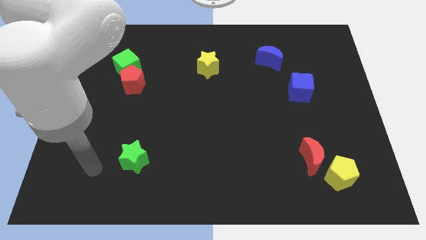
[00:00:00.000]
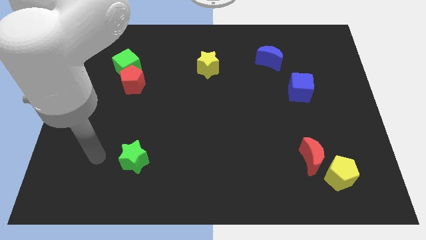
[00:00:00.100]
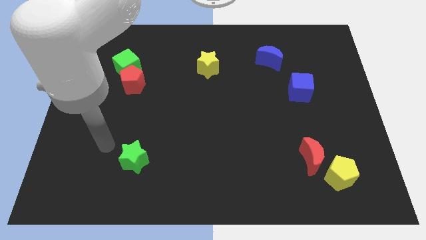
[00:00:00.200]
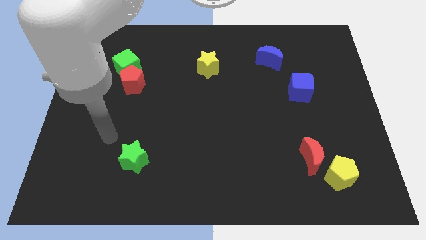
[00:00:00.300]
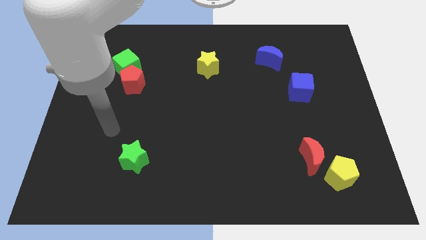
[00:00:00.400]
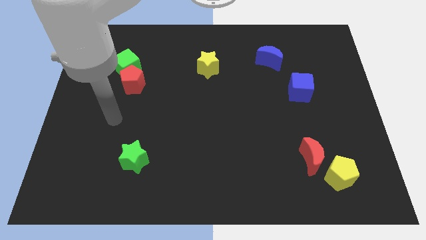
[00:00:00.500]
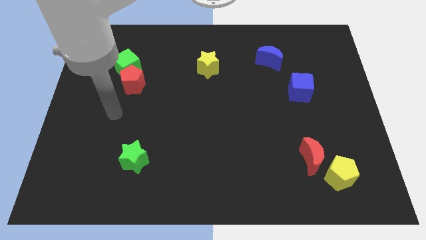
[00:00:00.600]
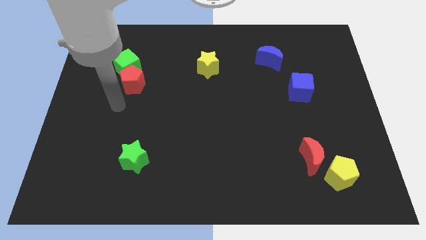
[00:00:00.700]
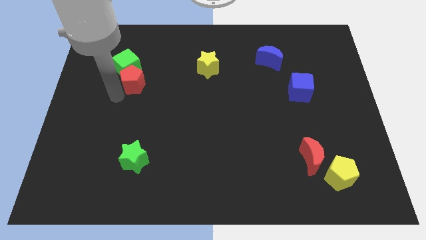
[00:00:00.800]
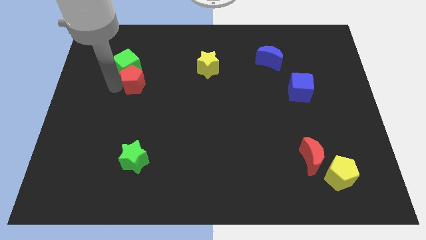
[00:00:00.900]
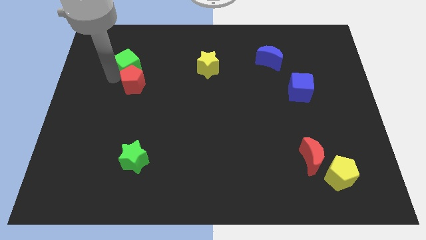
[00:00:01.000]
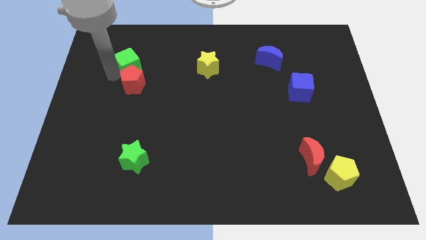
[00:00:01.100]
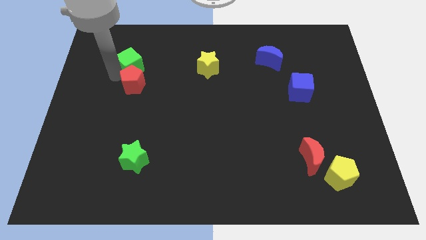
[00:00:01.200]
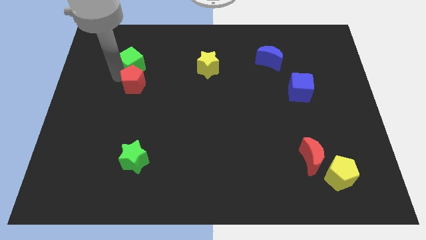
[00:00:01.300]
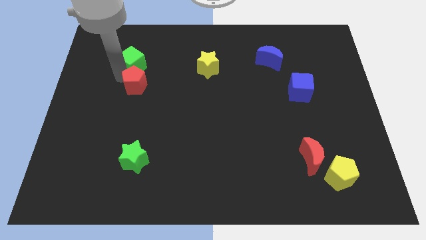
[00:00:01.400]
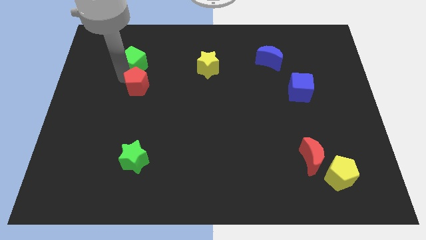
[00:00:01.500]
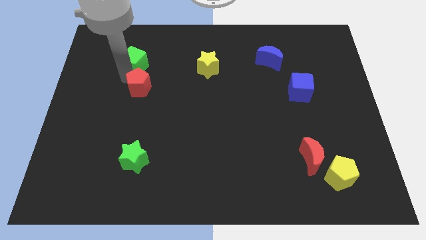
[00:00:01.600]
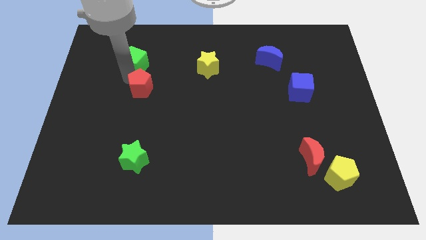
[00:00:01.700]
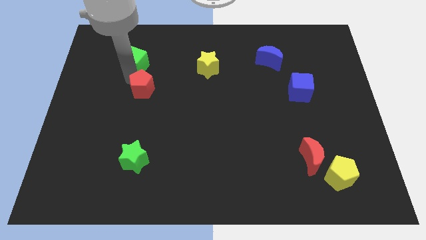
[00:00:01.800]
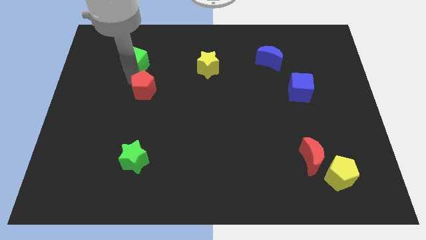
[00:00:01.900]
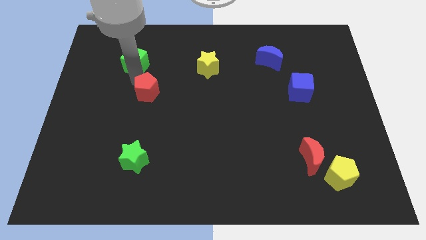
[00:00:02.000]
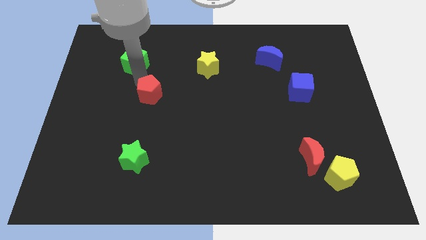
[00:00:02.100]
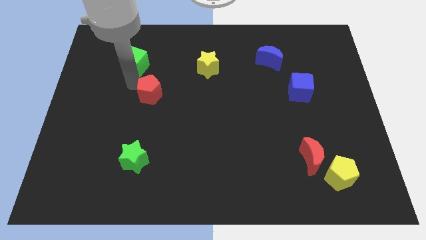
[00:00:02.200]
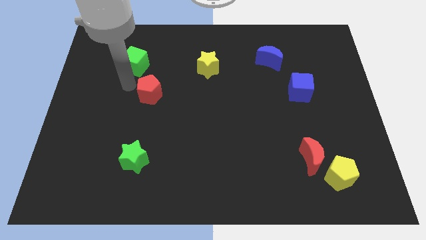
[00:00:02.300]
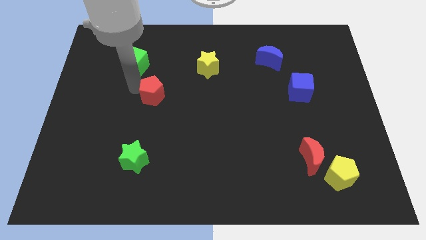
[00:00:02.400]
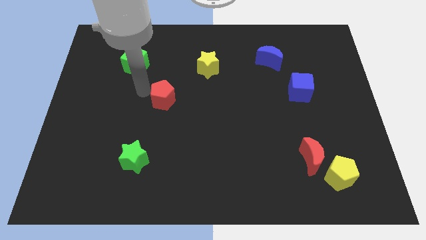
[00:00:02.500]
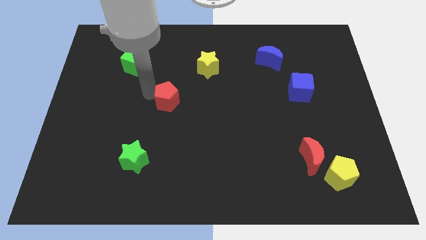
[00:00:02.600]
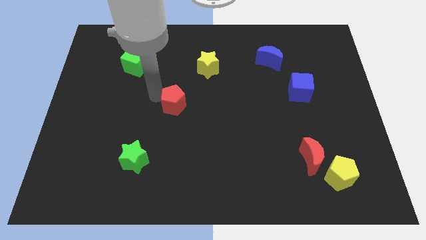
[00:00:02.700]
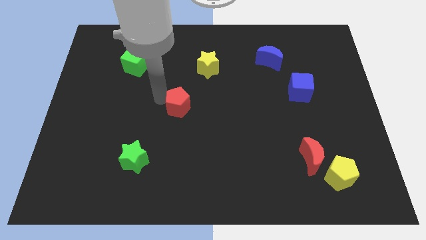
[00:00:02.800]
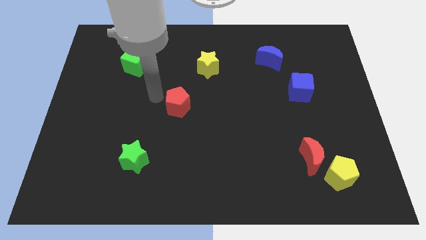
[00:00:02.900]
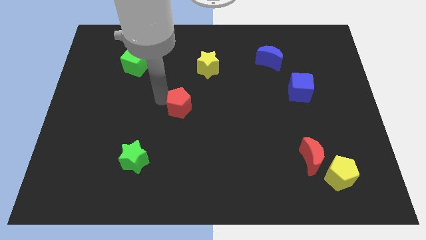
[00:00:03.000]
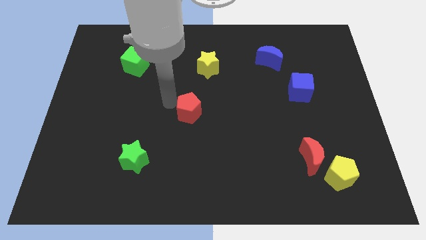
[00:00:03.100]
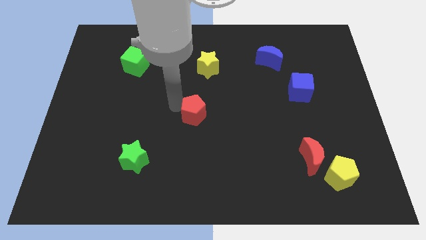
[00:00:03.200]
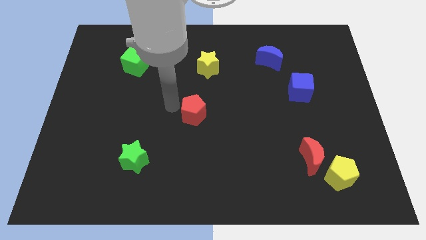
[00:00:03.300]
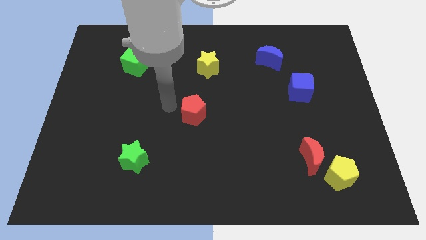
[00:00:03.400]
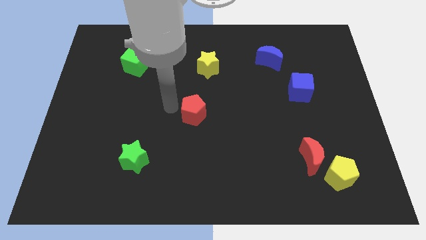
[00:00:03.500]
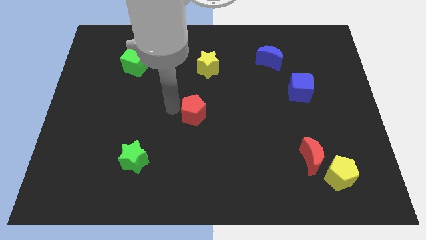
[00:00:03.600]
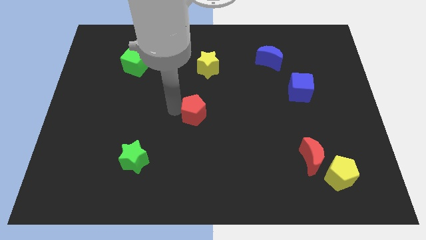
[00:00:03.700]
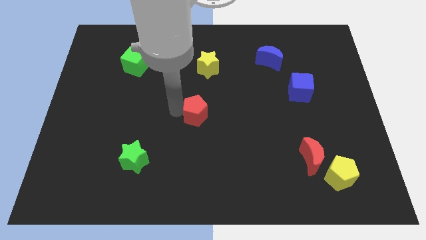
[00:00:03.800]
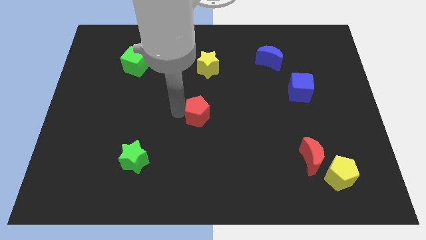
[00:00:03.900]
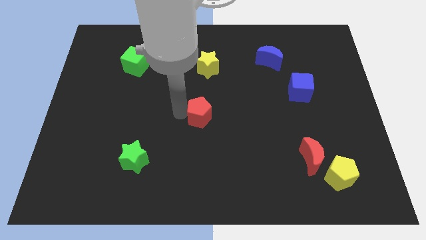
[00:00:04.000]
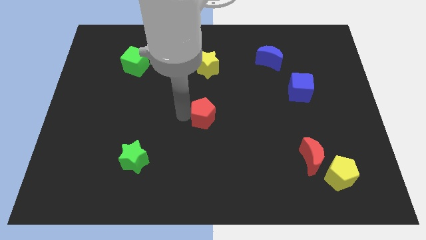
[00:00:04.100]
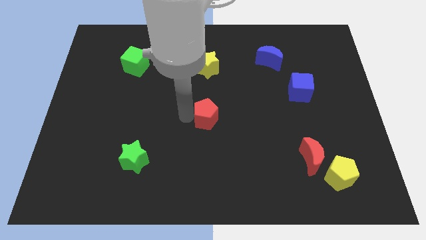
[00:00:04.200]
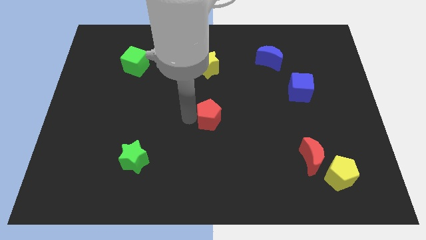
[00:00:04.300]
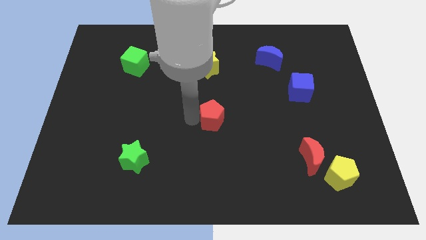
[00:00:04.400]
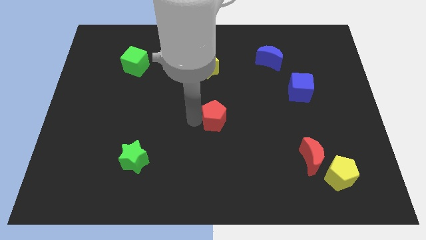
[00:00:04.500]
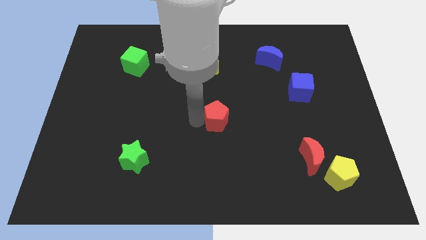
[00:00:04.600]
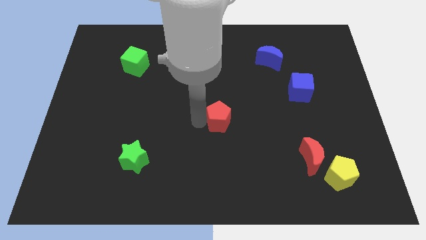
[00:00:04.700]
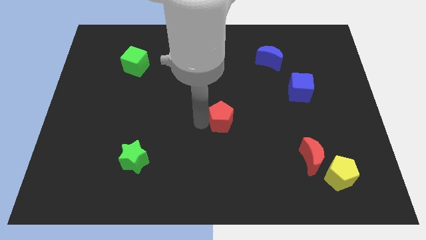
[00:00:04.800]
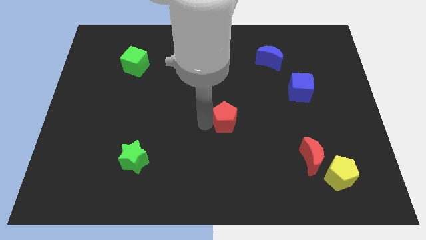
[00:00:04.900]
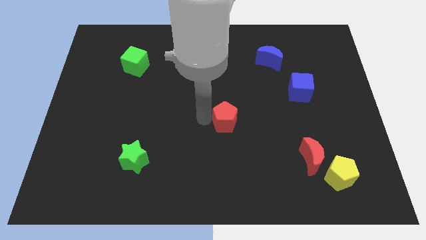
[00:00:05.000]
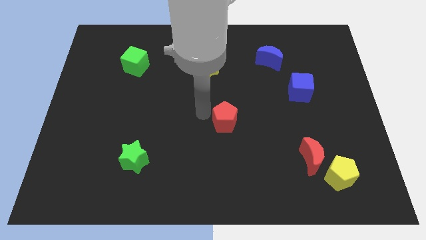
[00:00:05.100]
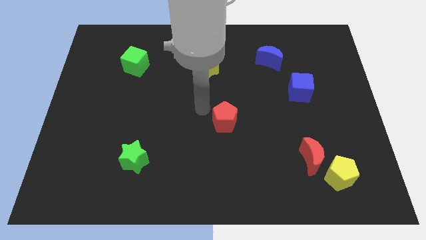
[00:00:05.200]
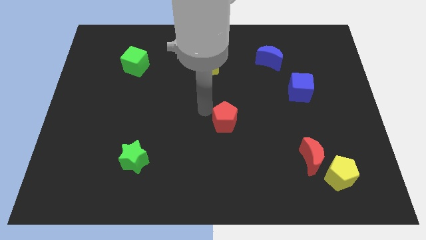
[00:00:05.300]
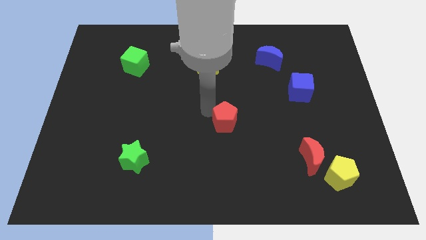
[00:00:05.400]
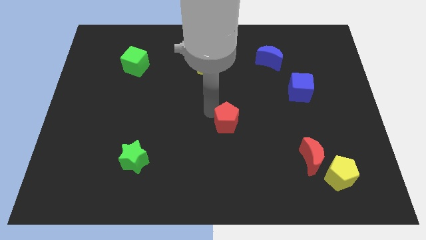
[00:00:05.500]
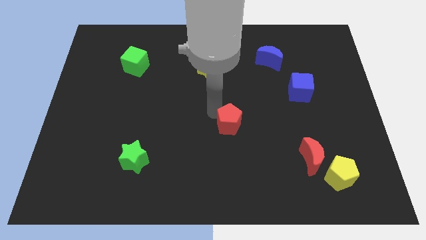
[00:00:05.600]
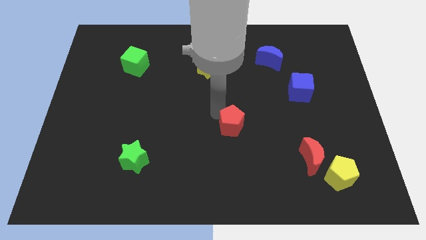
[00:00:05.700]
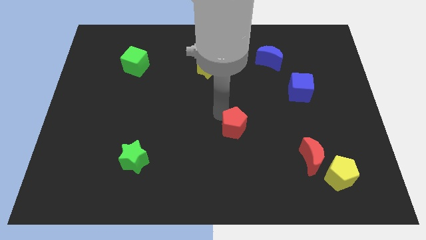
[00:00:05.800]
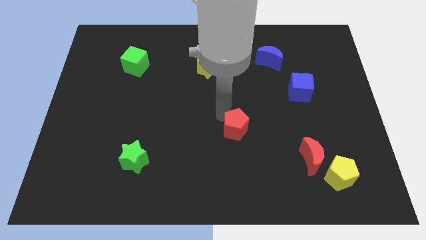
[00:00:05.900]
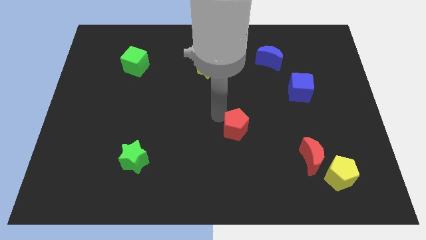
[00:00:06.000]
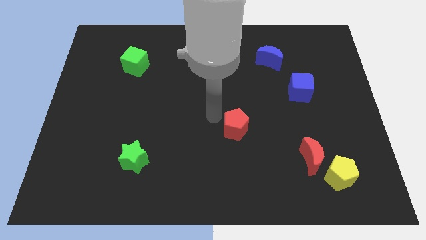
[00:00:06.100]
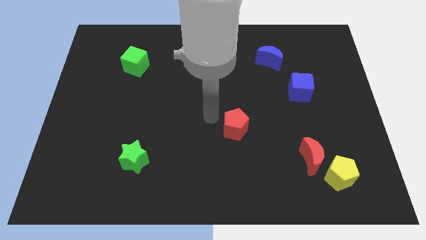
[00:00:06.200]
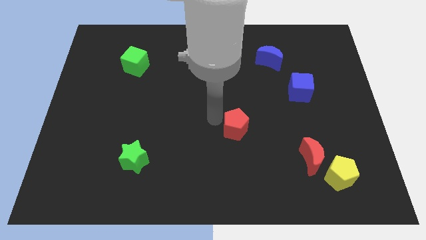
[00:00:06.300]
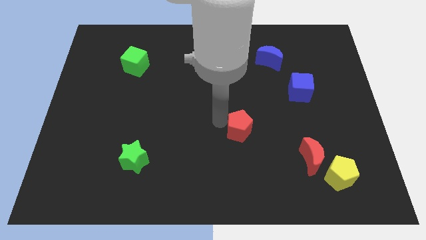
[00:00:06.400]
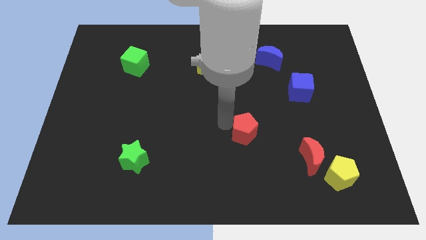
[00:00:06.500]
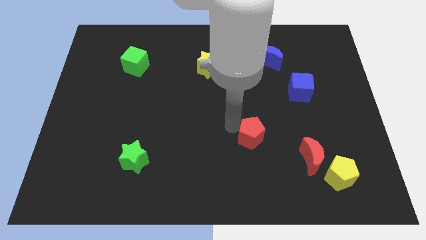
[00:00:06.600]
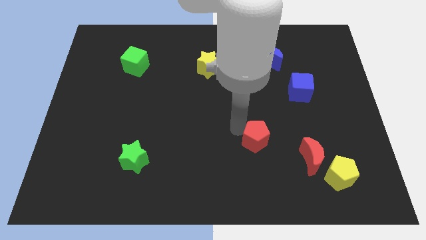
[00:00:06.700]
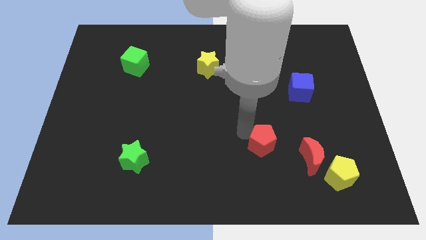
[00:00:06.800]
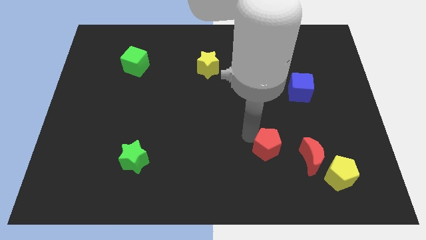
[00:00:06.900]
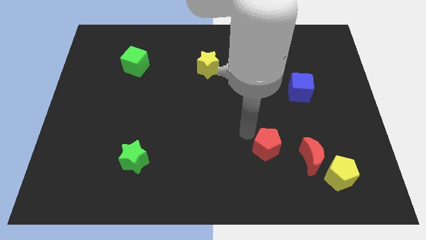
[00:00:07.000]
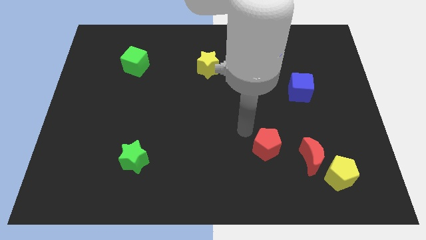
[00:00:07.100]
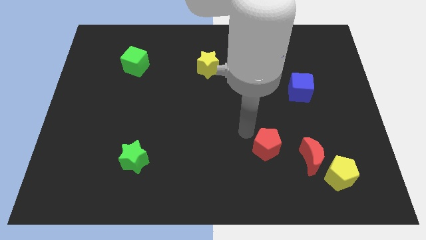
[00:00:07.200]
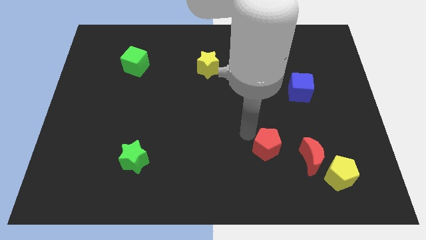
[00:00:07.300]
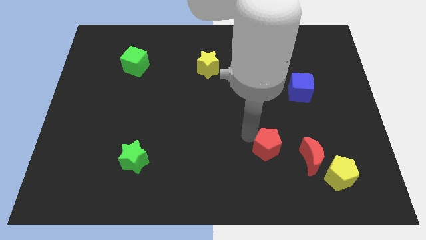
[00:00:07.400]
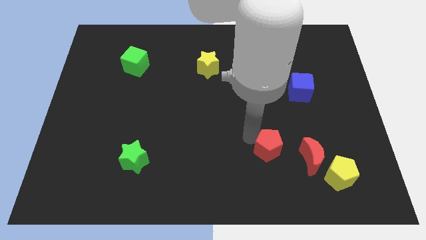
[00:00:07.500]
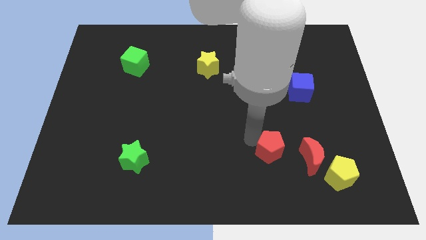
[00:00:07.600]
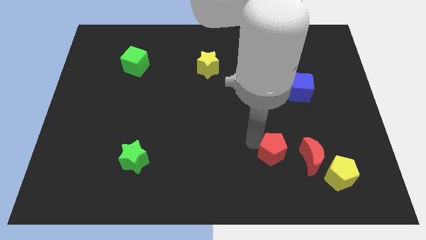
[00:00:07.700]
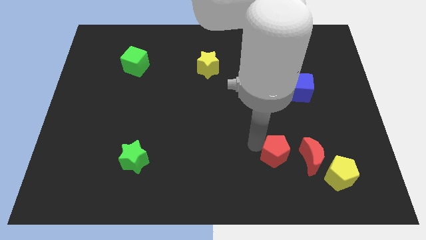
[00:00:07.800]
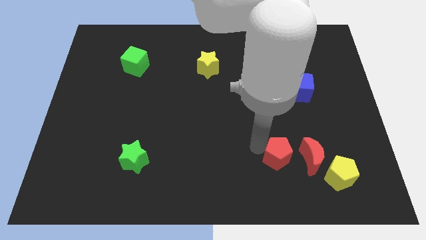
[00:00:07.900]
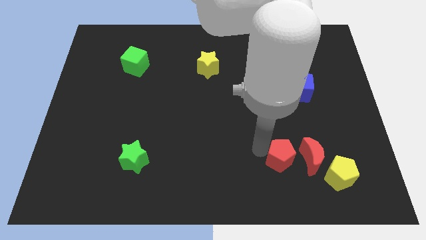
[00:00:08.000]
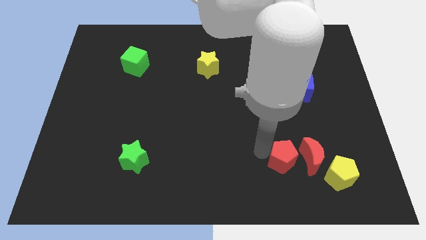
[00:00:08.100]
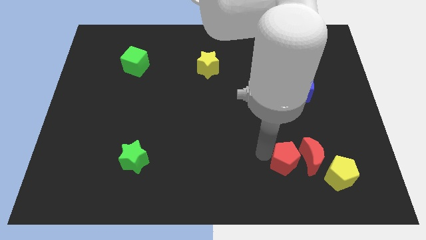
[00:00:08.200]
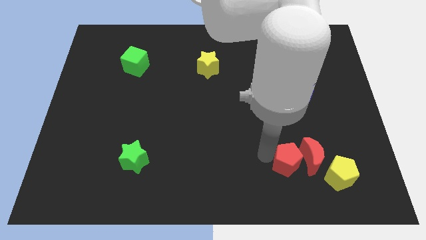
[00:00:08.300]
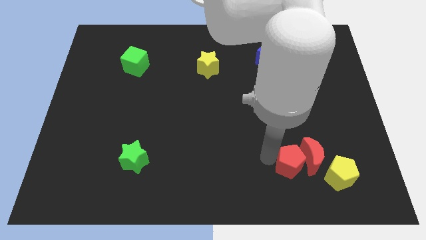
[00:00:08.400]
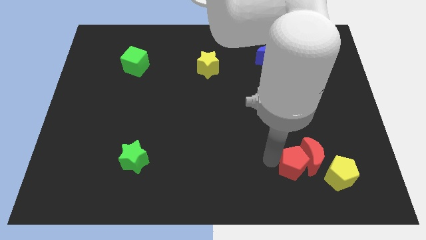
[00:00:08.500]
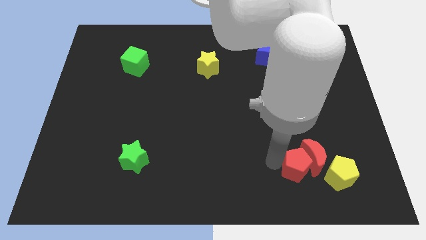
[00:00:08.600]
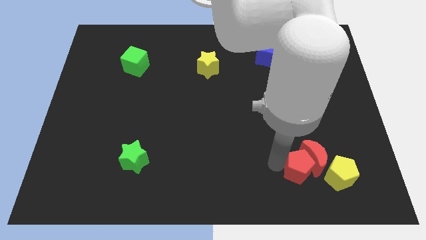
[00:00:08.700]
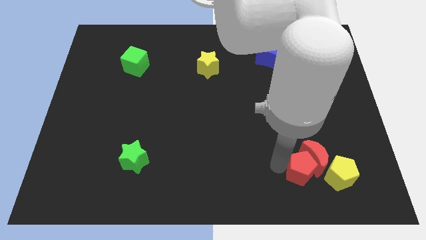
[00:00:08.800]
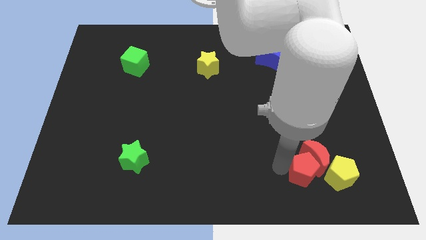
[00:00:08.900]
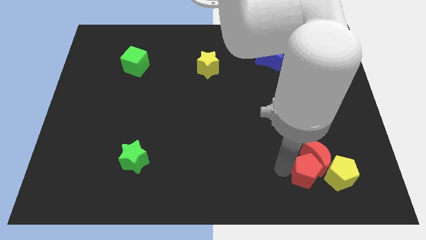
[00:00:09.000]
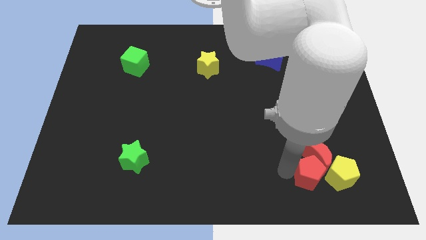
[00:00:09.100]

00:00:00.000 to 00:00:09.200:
push the red pentagon towards the yellow pentagon
